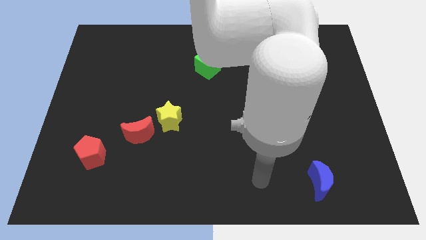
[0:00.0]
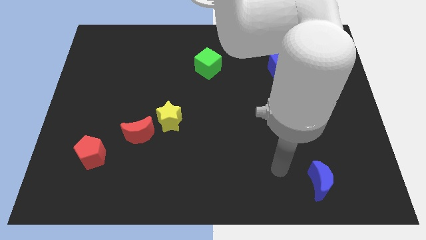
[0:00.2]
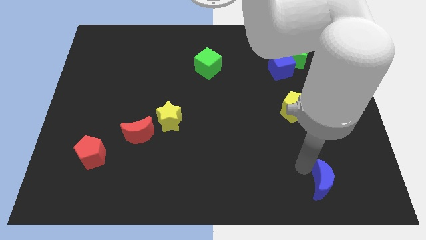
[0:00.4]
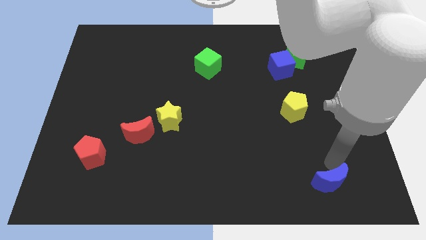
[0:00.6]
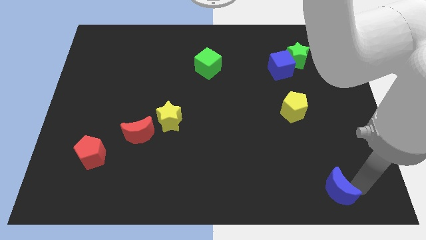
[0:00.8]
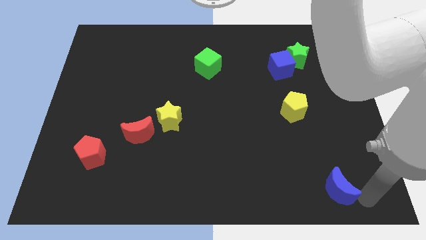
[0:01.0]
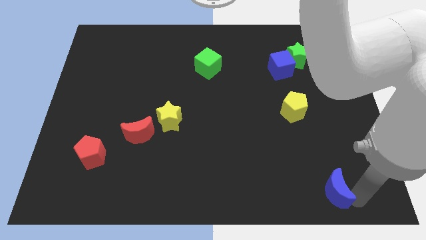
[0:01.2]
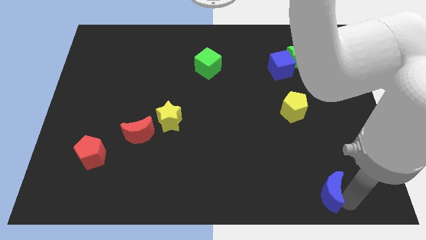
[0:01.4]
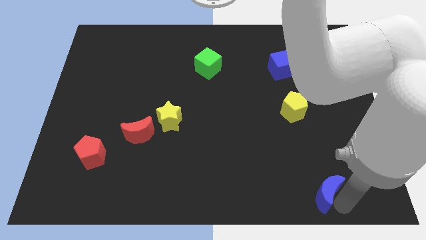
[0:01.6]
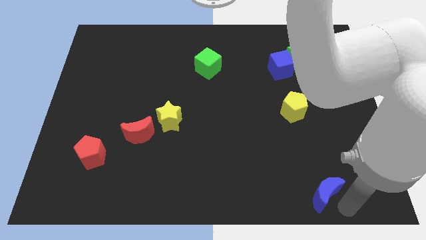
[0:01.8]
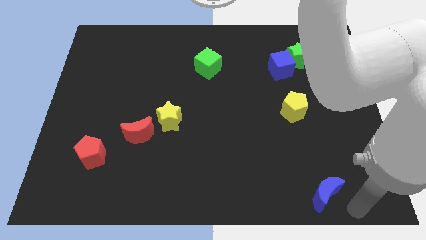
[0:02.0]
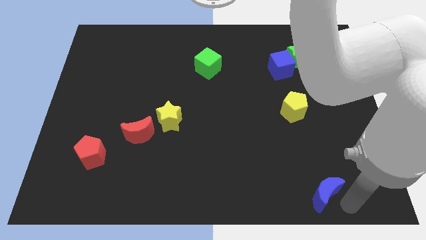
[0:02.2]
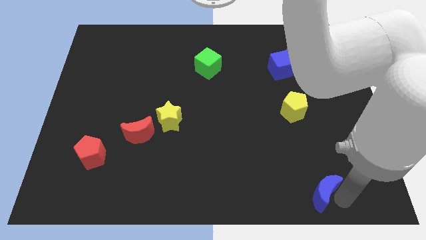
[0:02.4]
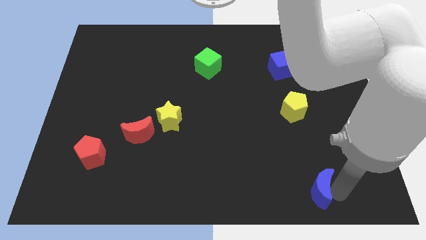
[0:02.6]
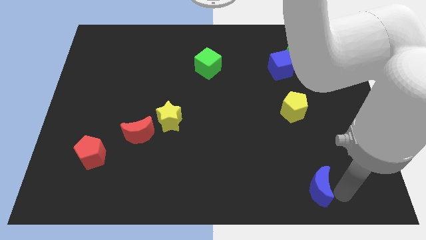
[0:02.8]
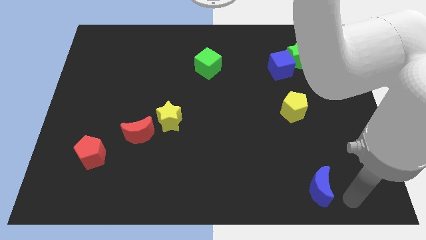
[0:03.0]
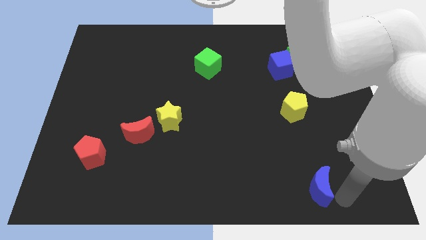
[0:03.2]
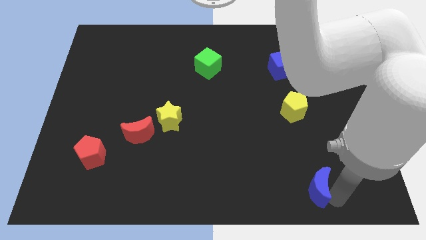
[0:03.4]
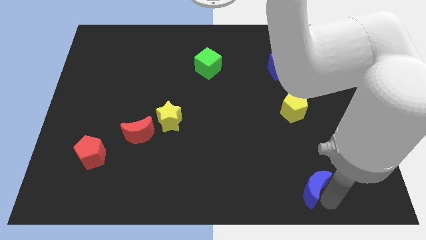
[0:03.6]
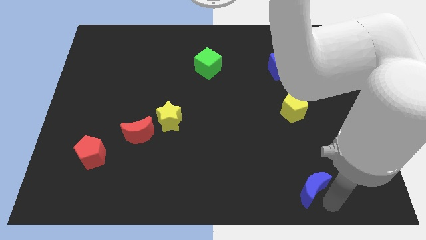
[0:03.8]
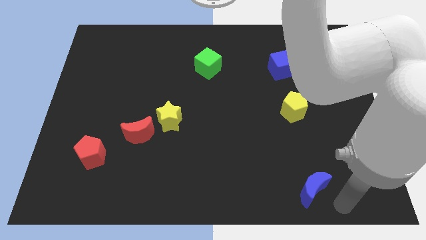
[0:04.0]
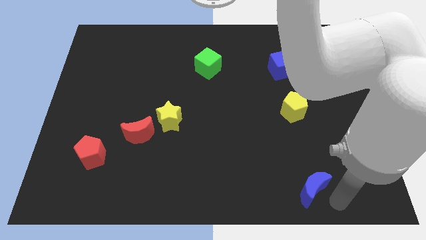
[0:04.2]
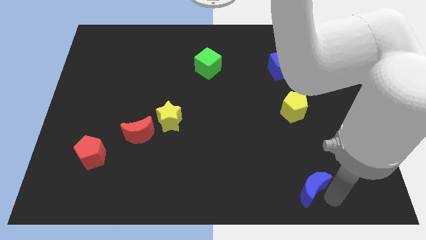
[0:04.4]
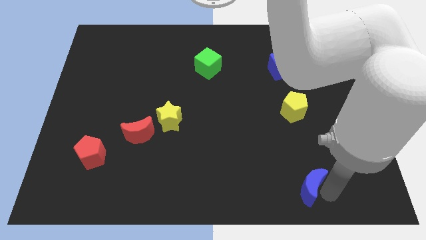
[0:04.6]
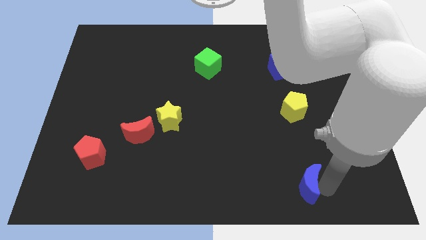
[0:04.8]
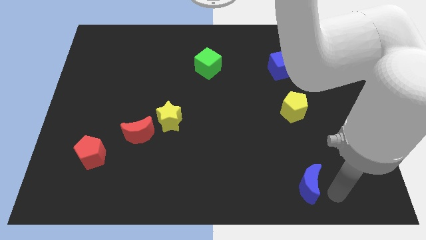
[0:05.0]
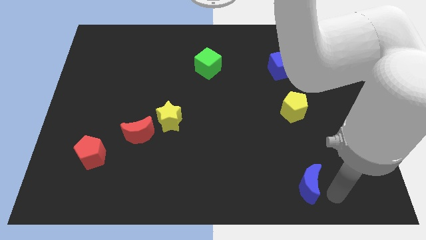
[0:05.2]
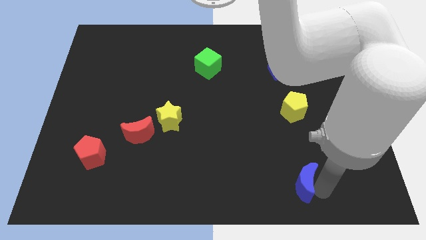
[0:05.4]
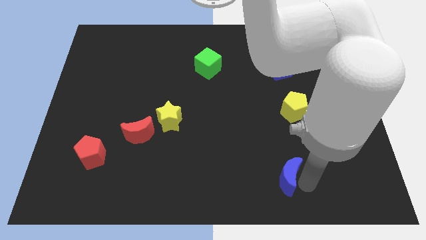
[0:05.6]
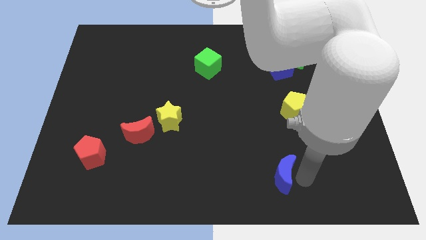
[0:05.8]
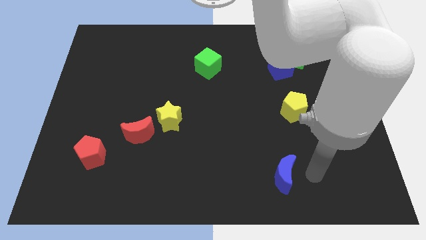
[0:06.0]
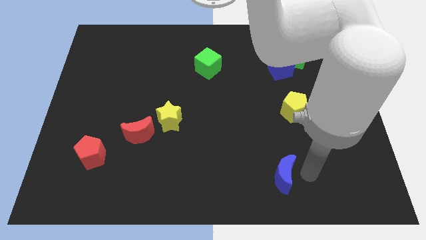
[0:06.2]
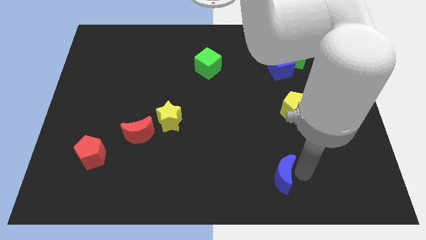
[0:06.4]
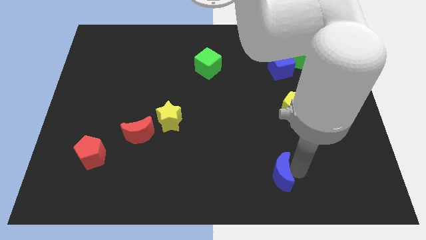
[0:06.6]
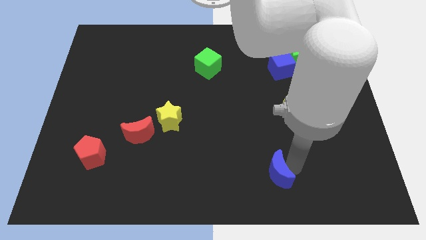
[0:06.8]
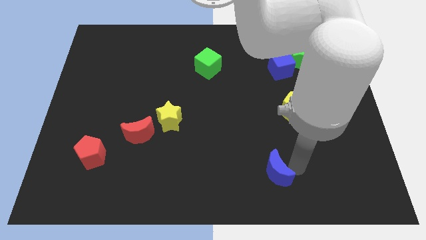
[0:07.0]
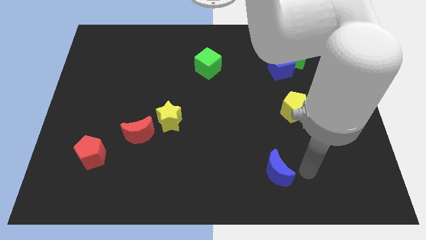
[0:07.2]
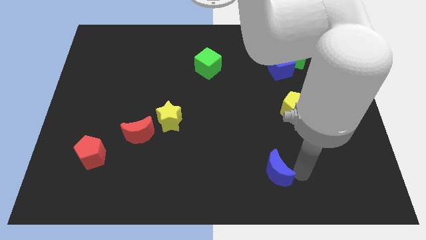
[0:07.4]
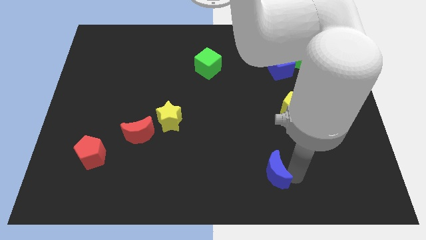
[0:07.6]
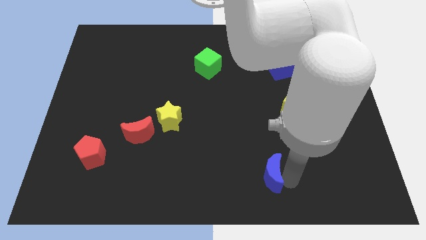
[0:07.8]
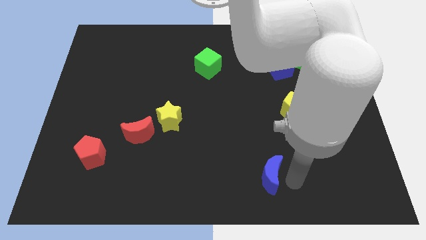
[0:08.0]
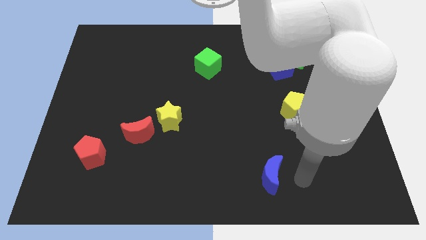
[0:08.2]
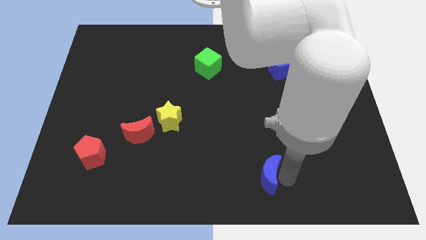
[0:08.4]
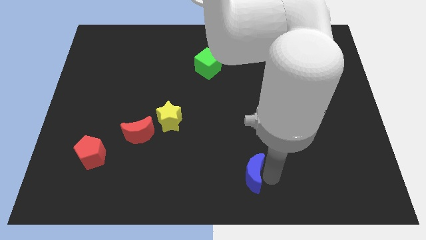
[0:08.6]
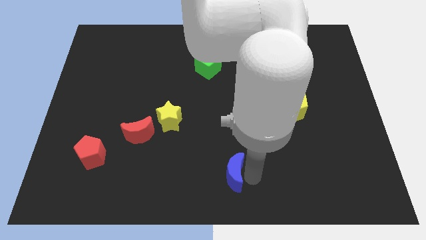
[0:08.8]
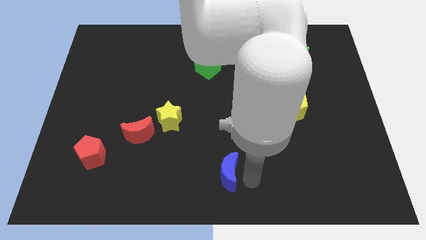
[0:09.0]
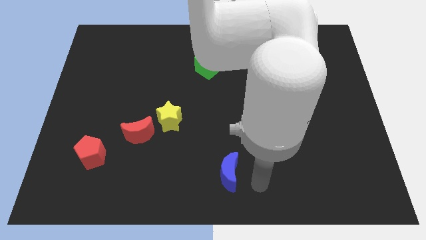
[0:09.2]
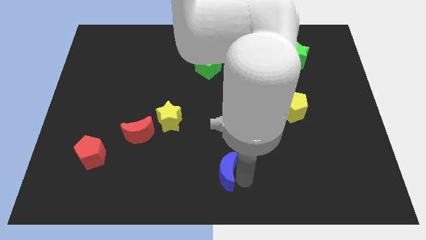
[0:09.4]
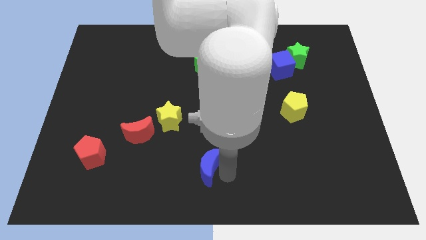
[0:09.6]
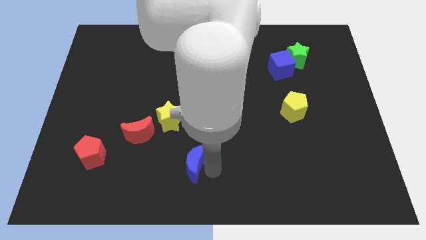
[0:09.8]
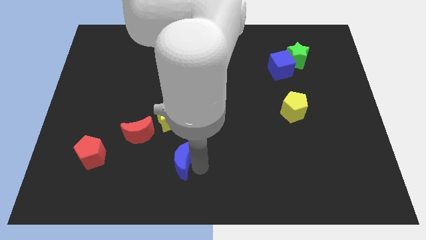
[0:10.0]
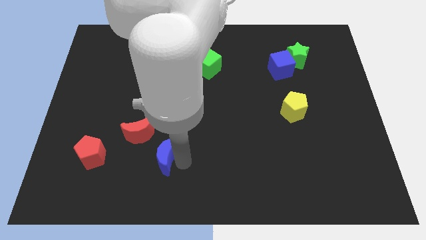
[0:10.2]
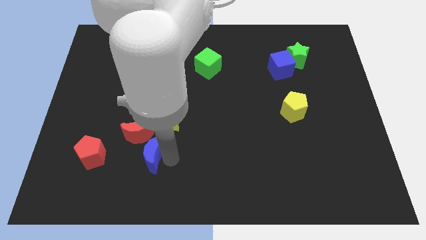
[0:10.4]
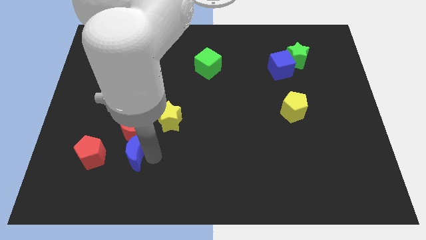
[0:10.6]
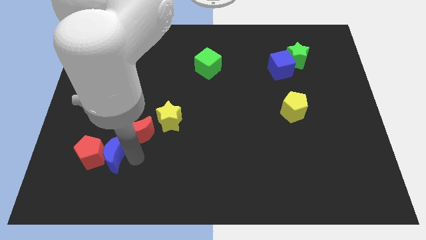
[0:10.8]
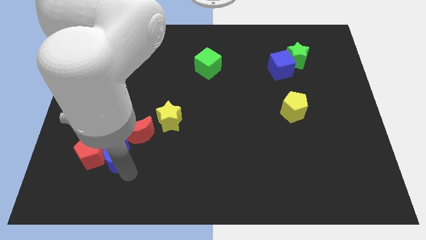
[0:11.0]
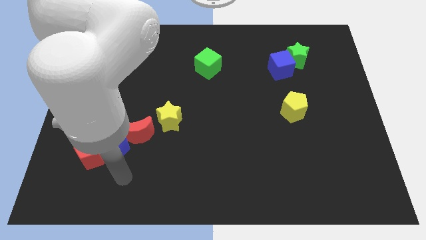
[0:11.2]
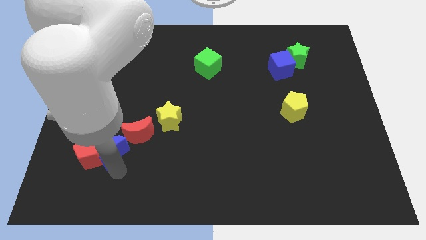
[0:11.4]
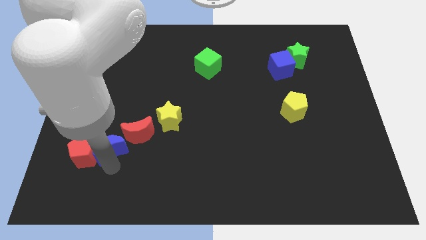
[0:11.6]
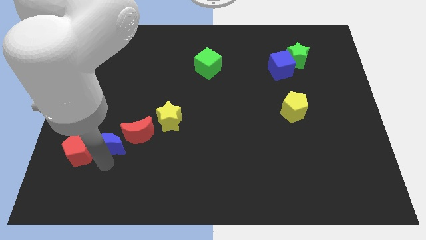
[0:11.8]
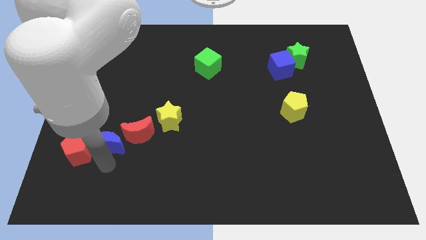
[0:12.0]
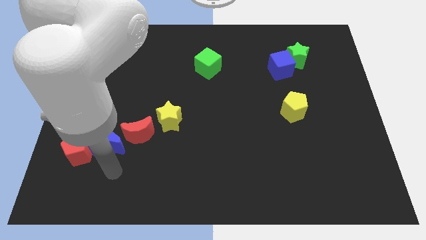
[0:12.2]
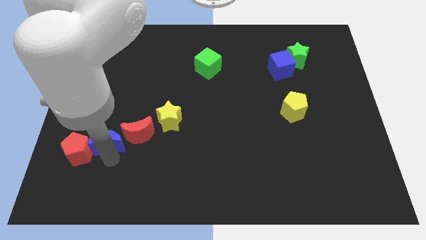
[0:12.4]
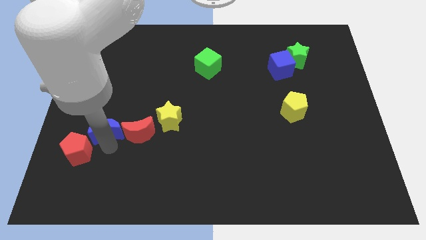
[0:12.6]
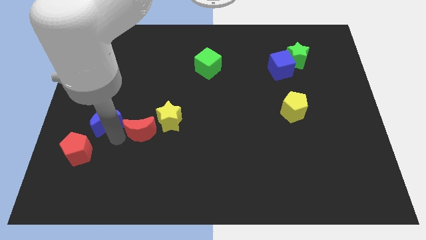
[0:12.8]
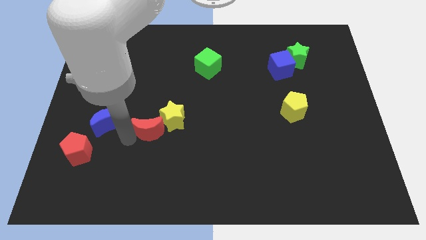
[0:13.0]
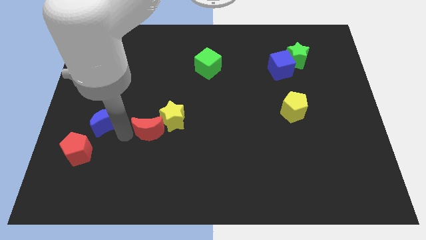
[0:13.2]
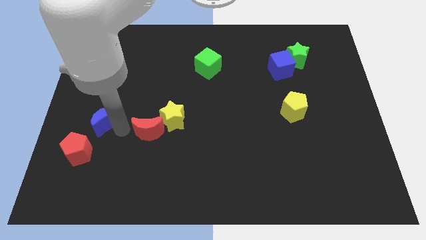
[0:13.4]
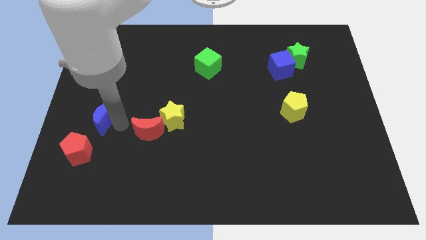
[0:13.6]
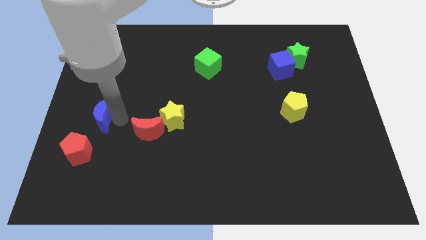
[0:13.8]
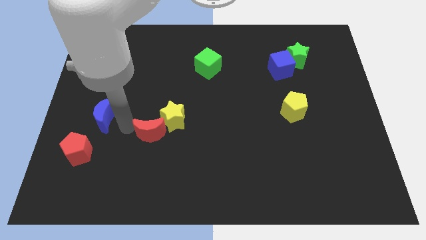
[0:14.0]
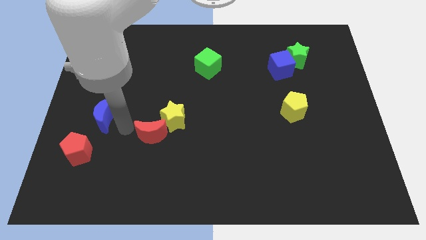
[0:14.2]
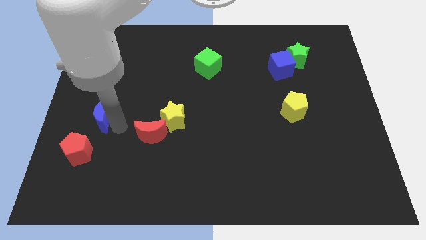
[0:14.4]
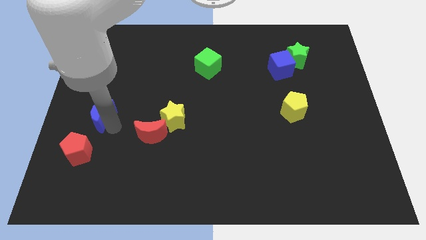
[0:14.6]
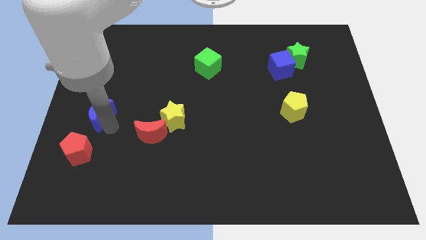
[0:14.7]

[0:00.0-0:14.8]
slide the blue moon to the left side of the board
